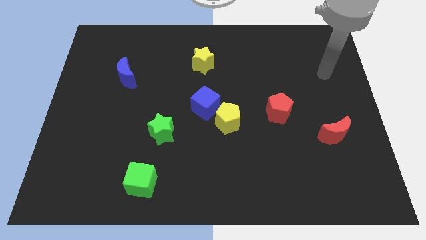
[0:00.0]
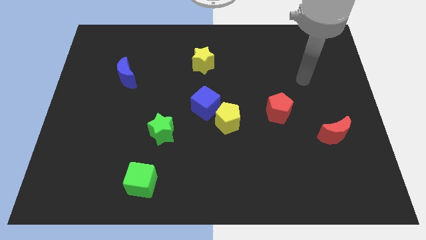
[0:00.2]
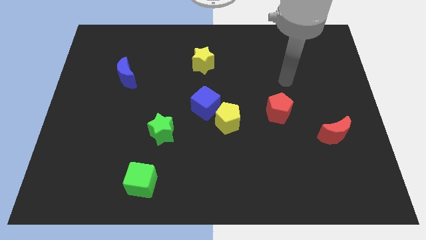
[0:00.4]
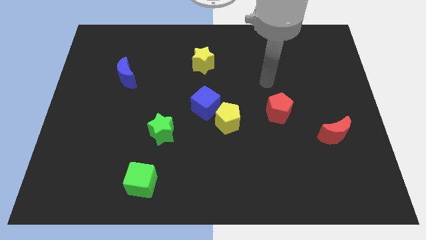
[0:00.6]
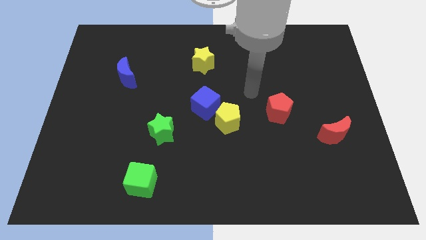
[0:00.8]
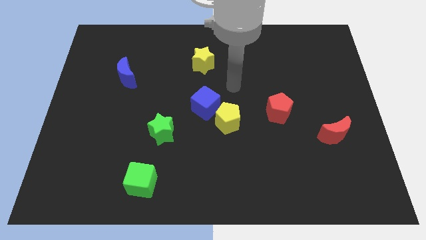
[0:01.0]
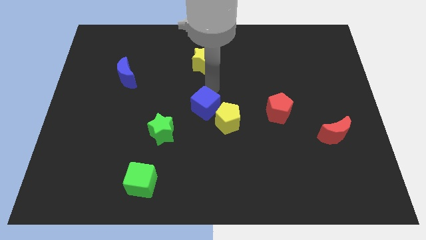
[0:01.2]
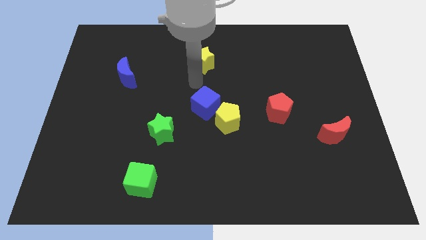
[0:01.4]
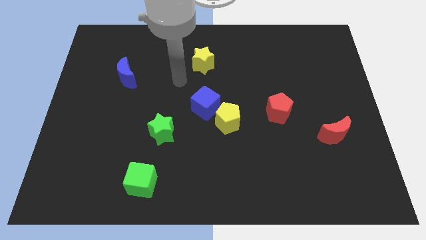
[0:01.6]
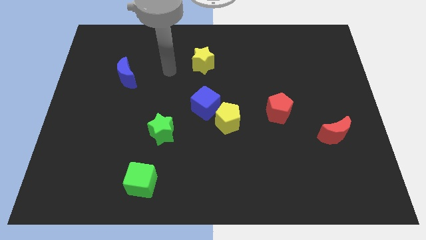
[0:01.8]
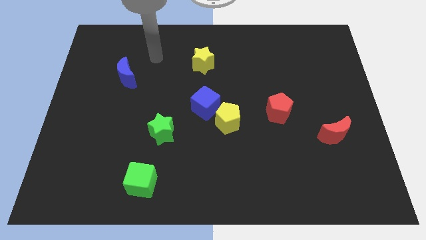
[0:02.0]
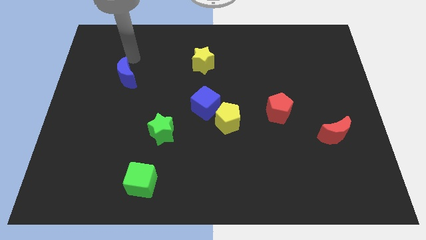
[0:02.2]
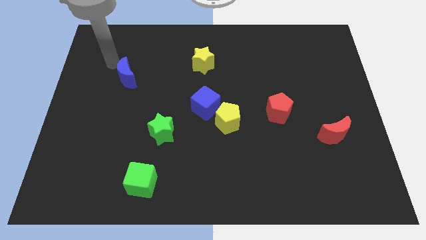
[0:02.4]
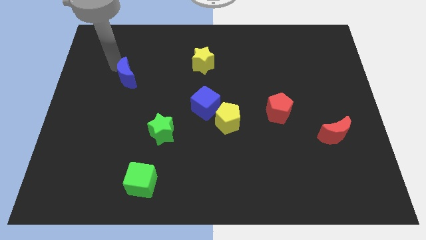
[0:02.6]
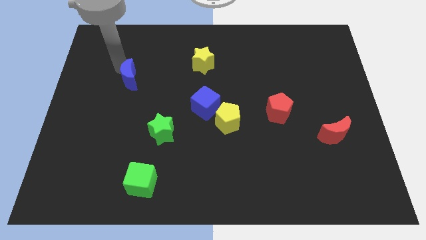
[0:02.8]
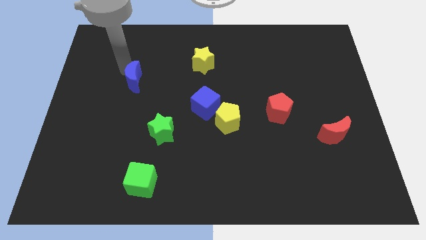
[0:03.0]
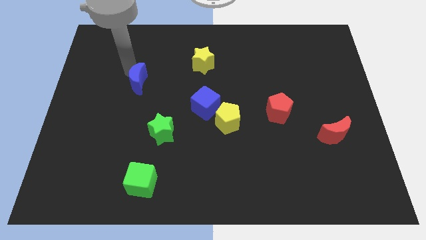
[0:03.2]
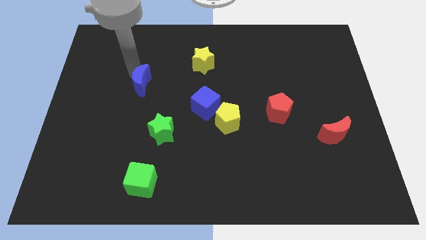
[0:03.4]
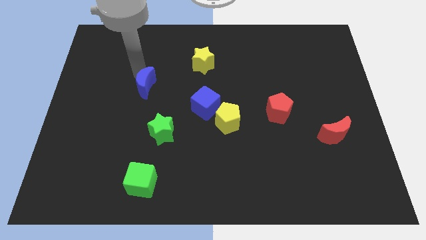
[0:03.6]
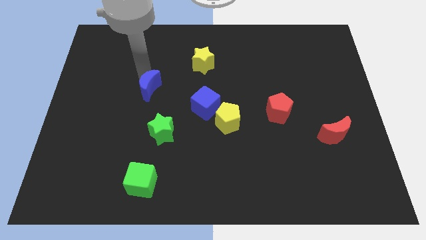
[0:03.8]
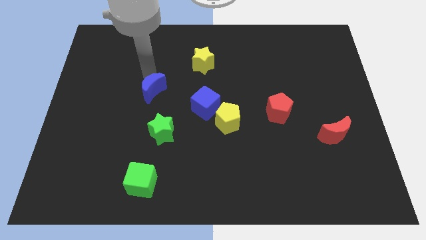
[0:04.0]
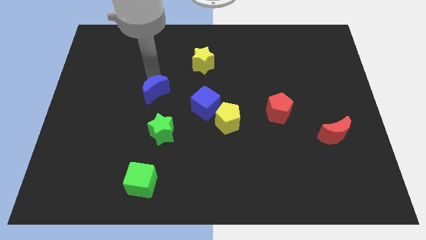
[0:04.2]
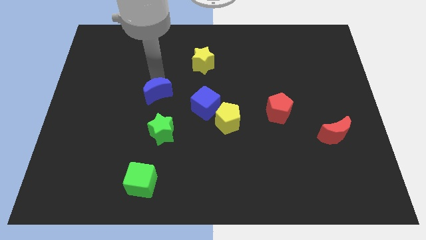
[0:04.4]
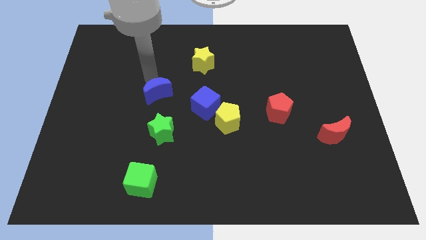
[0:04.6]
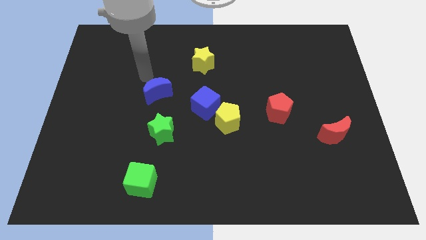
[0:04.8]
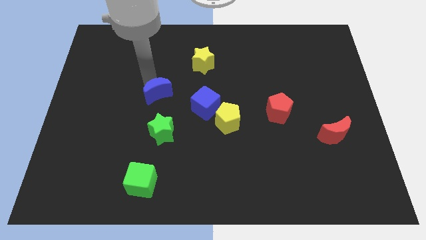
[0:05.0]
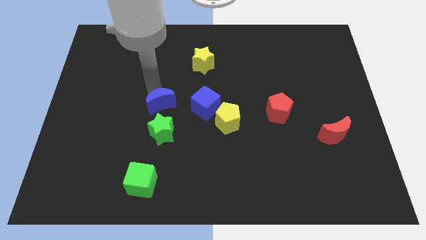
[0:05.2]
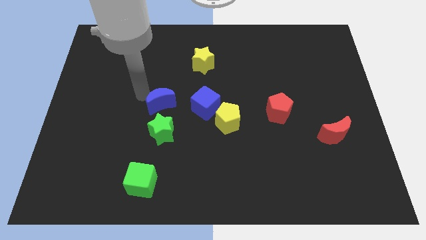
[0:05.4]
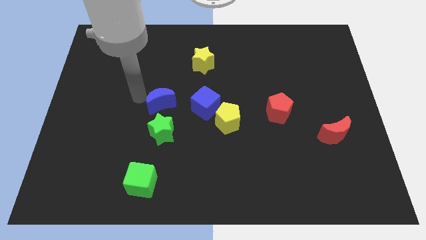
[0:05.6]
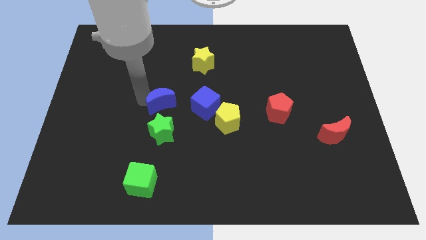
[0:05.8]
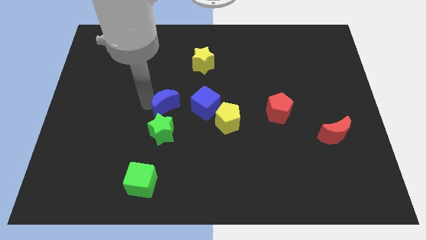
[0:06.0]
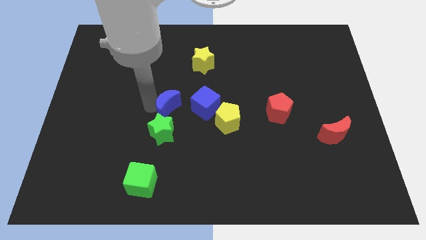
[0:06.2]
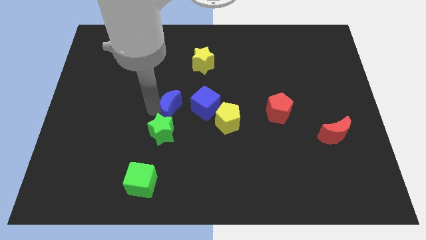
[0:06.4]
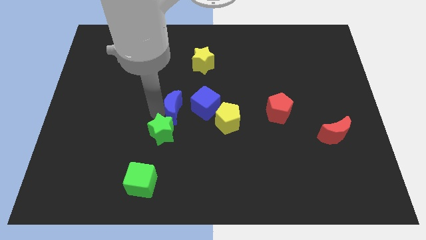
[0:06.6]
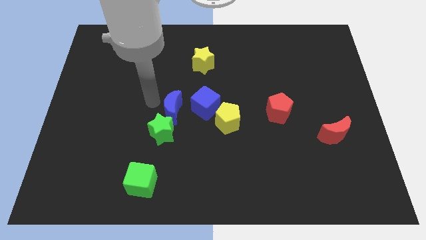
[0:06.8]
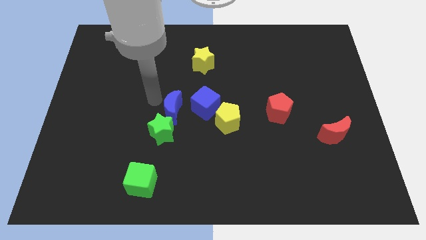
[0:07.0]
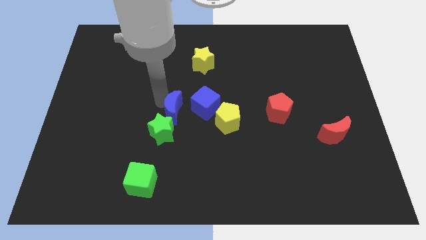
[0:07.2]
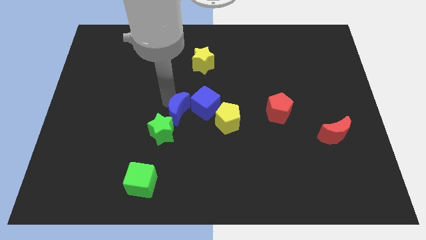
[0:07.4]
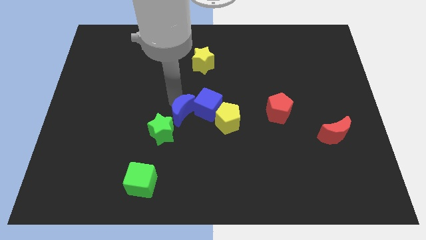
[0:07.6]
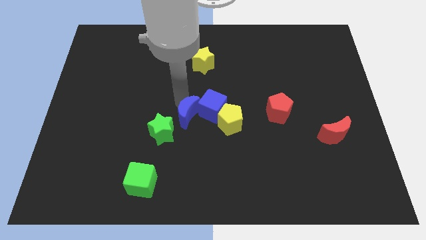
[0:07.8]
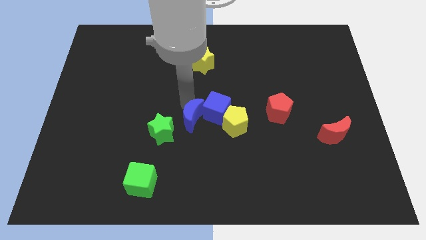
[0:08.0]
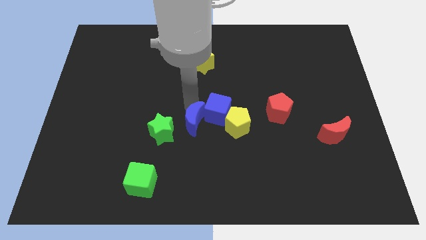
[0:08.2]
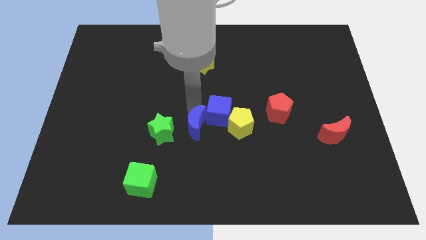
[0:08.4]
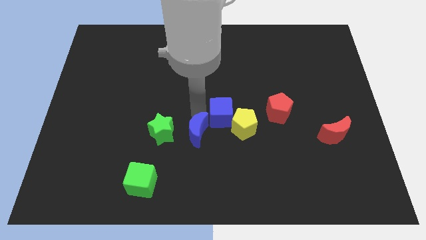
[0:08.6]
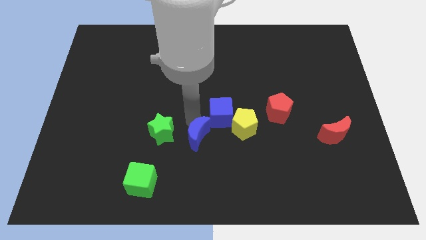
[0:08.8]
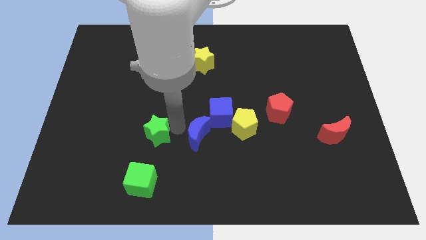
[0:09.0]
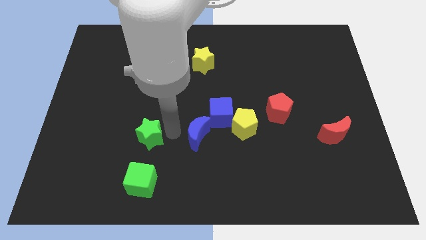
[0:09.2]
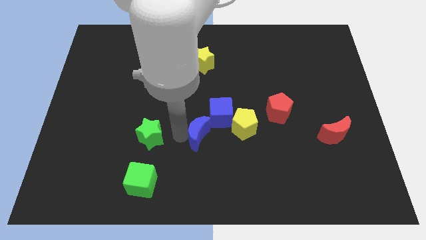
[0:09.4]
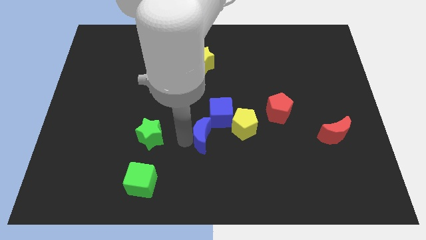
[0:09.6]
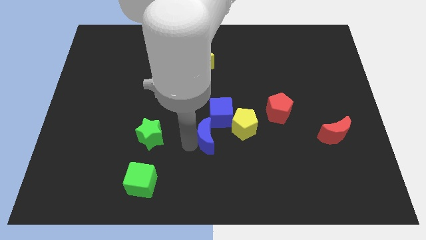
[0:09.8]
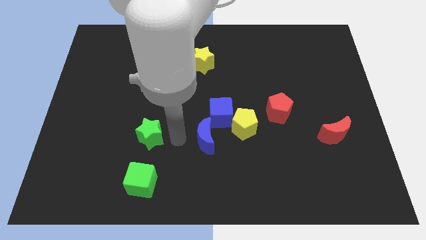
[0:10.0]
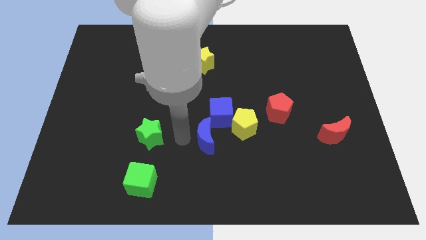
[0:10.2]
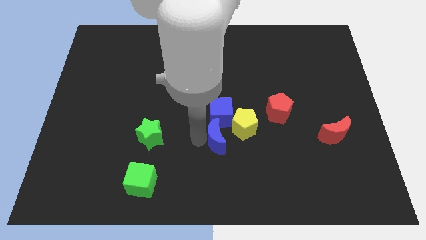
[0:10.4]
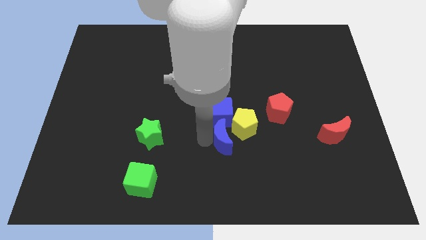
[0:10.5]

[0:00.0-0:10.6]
put the blue moon to the bottom right side of the blue cube
